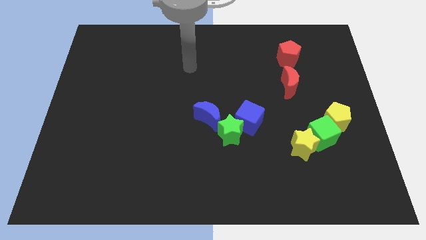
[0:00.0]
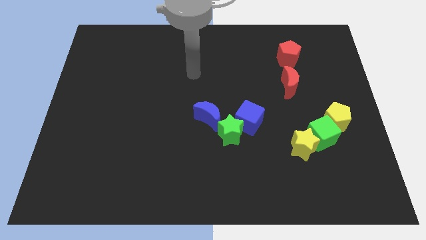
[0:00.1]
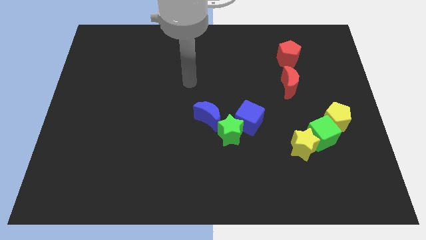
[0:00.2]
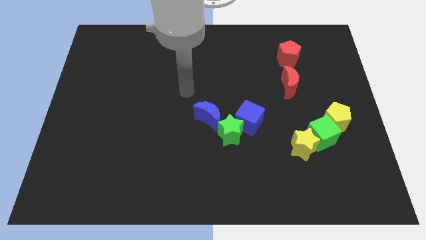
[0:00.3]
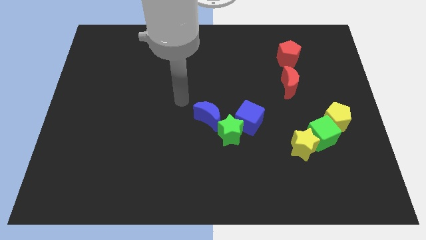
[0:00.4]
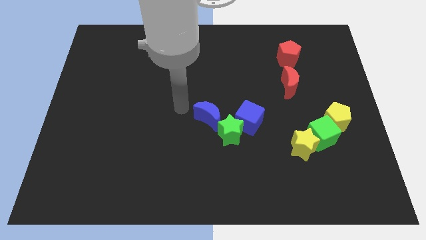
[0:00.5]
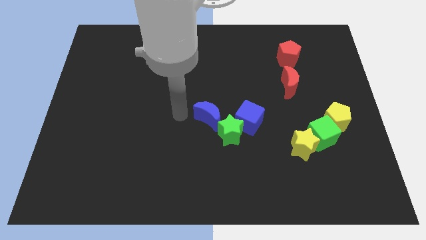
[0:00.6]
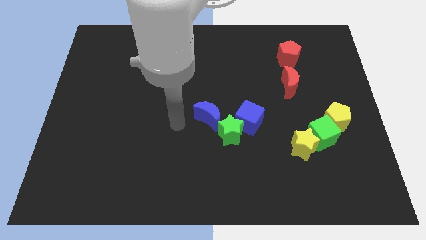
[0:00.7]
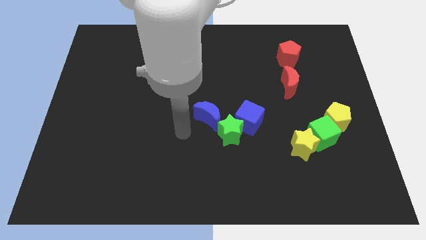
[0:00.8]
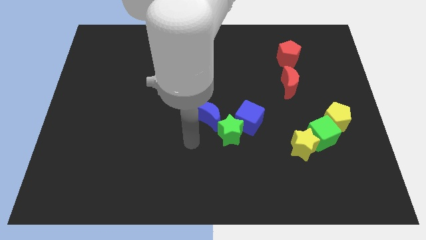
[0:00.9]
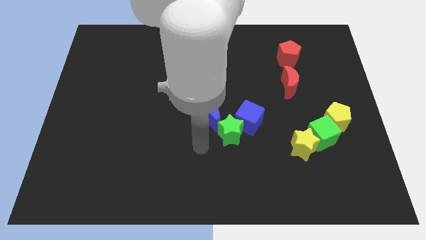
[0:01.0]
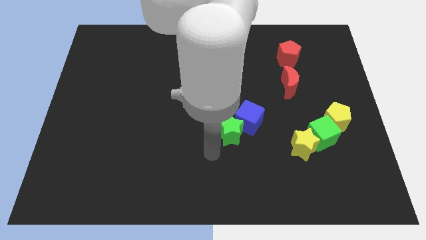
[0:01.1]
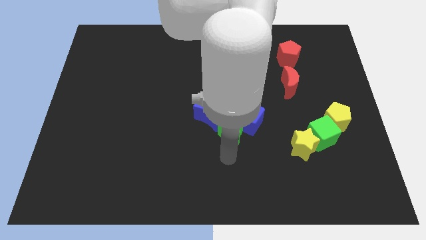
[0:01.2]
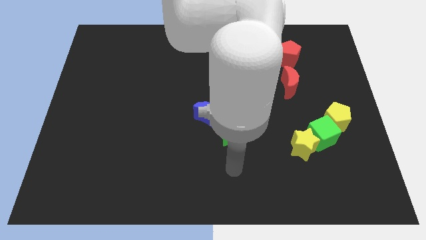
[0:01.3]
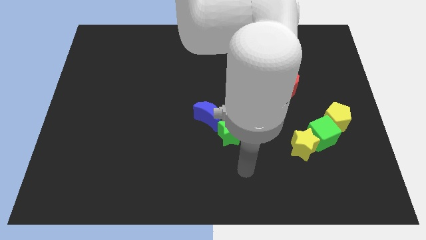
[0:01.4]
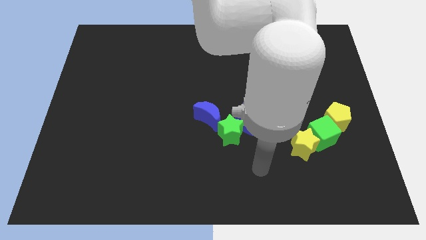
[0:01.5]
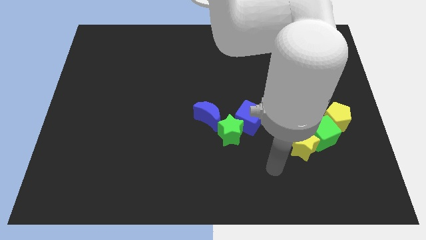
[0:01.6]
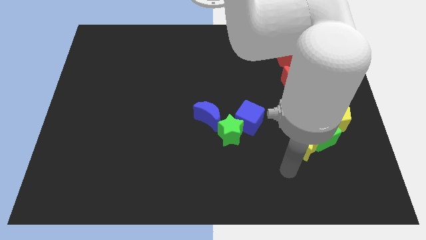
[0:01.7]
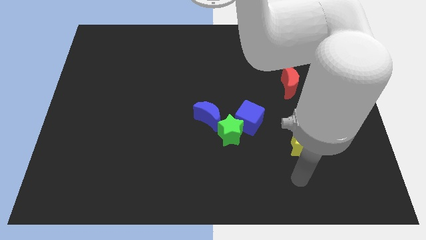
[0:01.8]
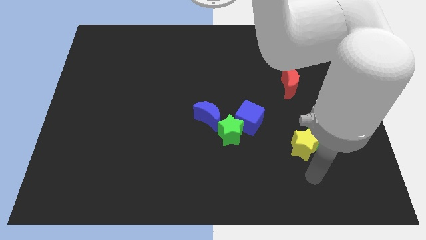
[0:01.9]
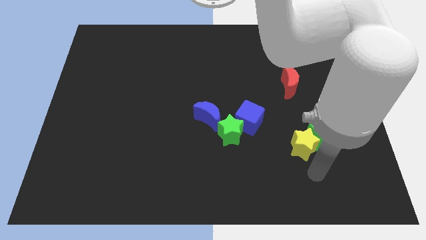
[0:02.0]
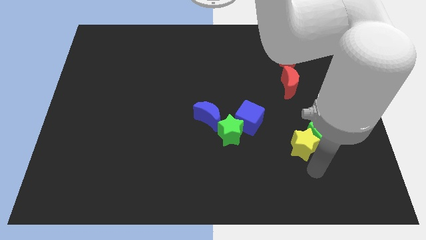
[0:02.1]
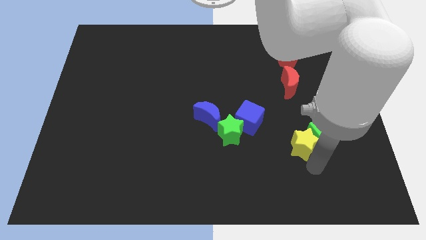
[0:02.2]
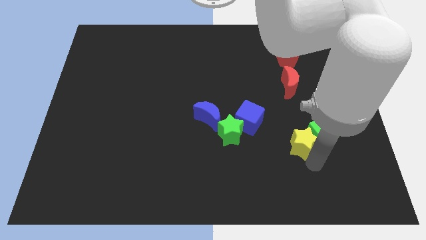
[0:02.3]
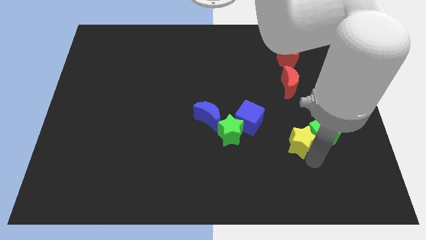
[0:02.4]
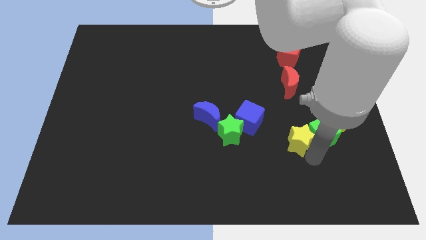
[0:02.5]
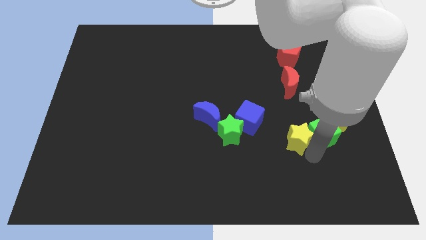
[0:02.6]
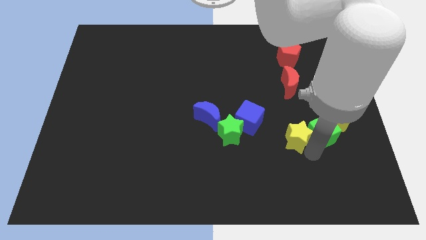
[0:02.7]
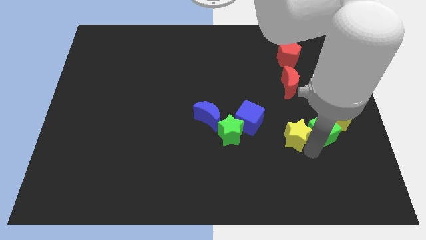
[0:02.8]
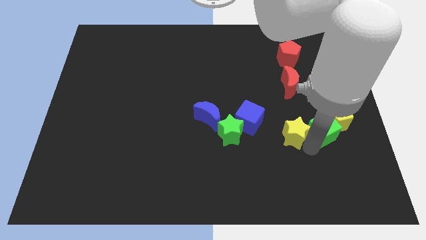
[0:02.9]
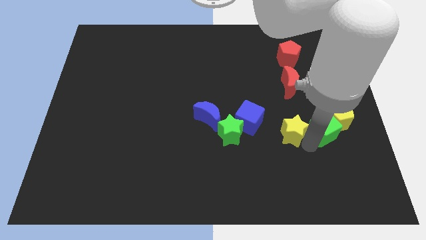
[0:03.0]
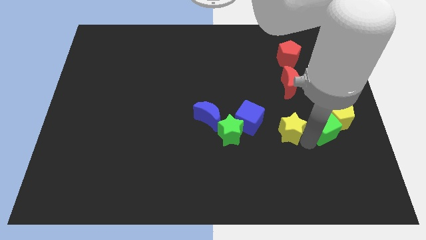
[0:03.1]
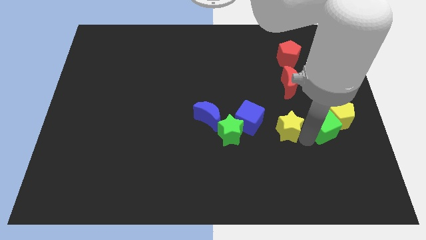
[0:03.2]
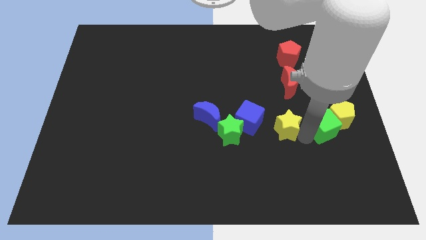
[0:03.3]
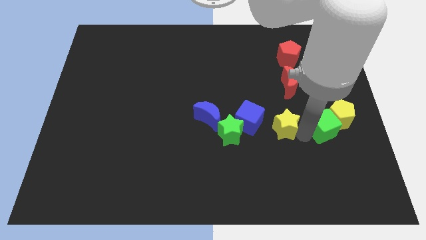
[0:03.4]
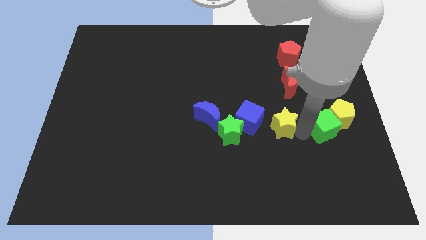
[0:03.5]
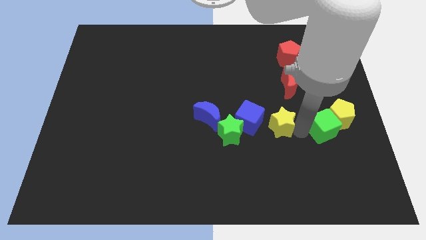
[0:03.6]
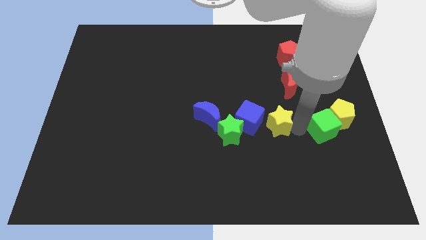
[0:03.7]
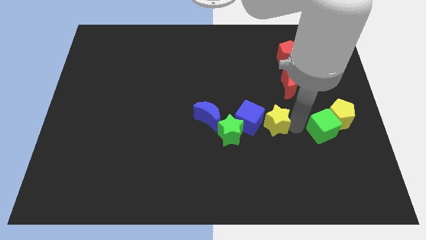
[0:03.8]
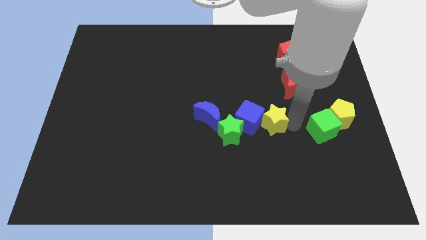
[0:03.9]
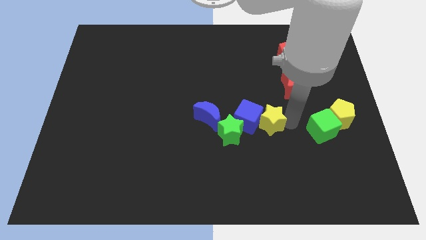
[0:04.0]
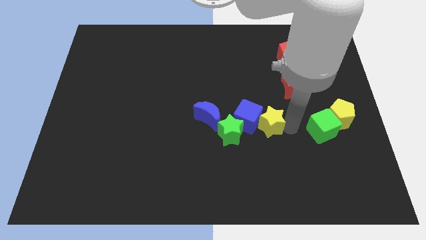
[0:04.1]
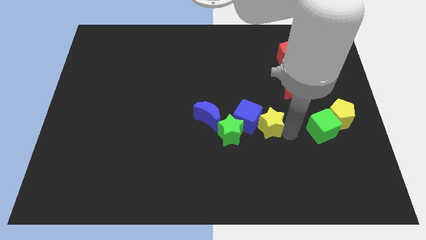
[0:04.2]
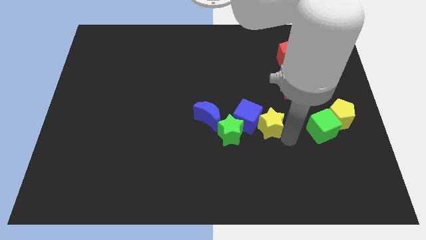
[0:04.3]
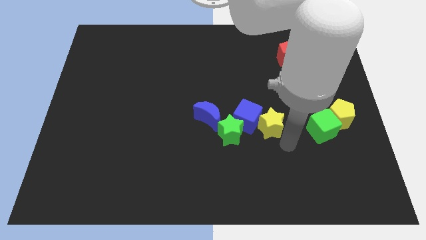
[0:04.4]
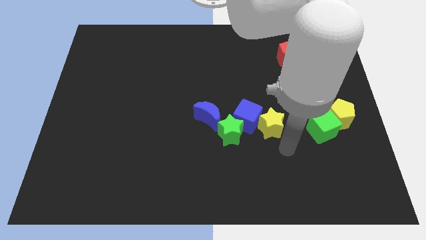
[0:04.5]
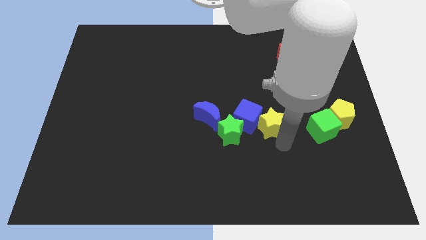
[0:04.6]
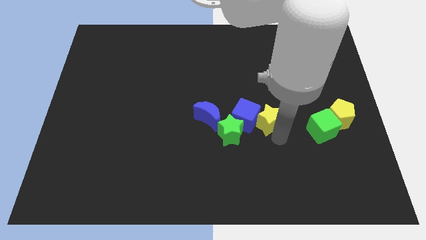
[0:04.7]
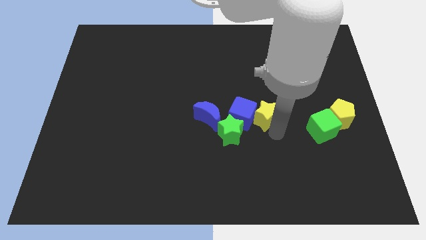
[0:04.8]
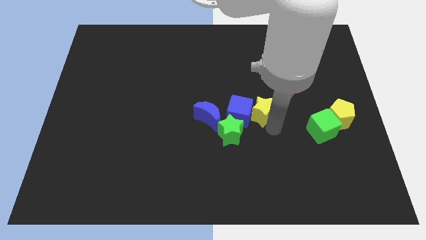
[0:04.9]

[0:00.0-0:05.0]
push the yellow star to the middle of the board

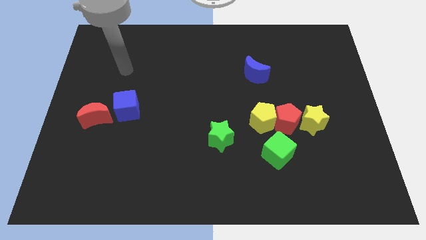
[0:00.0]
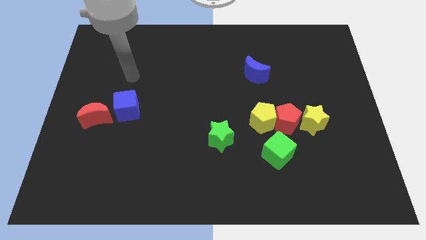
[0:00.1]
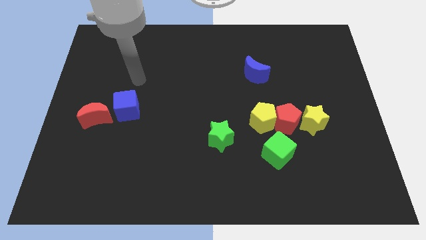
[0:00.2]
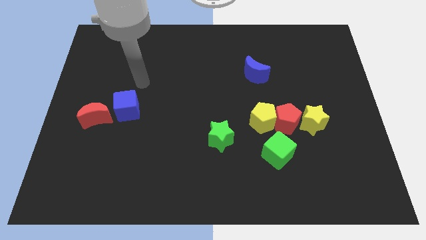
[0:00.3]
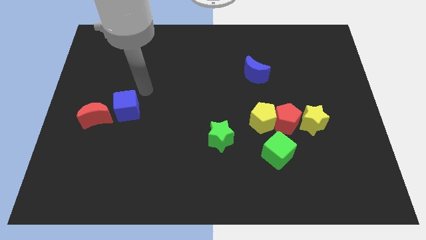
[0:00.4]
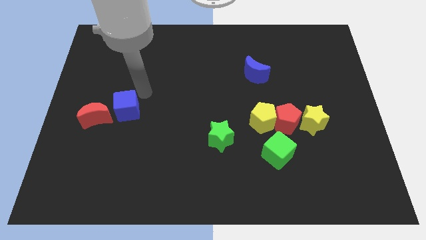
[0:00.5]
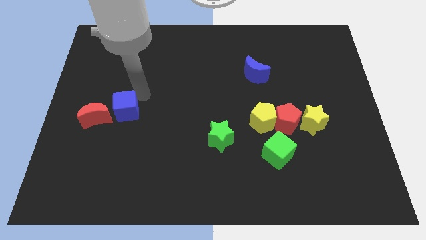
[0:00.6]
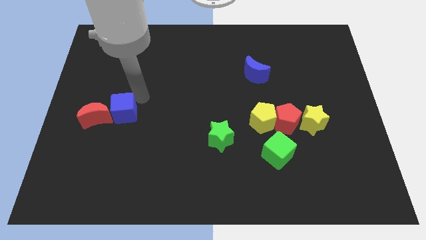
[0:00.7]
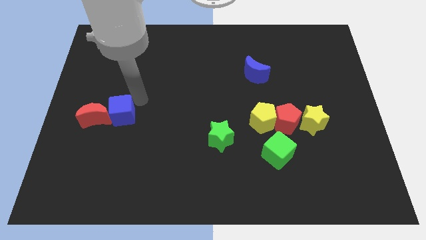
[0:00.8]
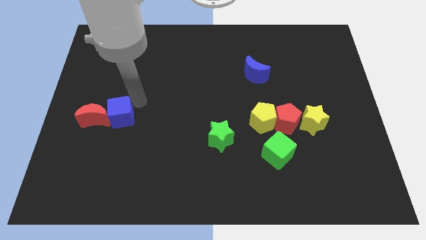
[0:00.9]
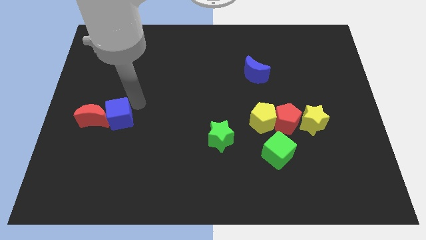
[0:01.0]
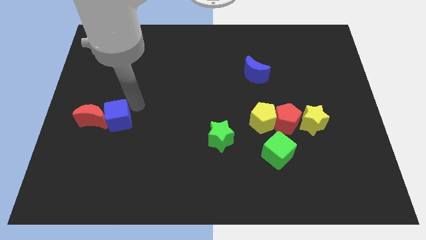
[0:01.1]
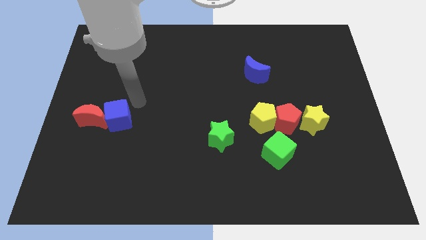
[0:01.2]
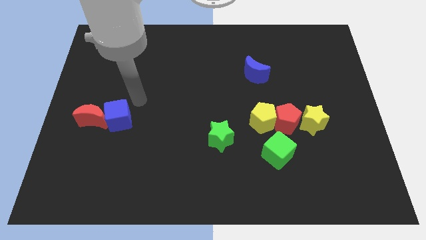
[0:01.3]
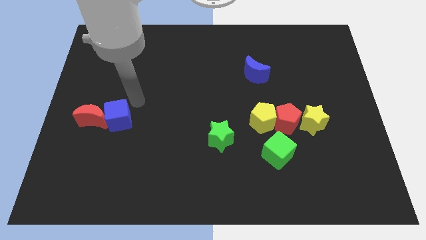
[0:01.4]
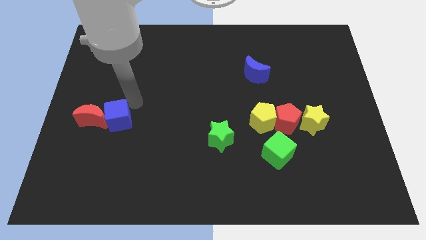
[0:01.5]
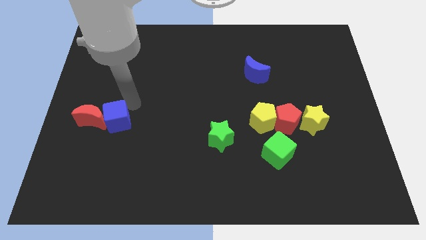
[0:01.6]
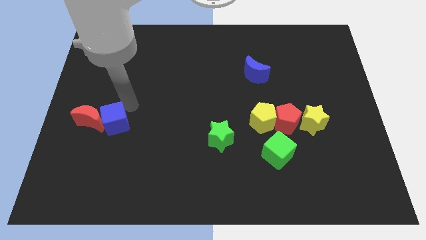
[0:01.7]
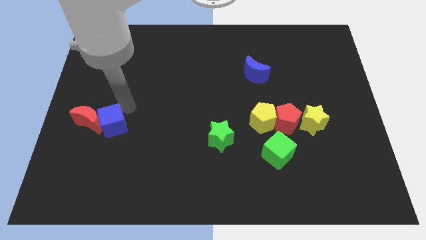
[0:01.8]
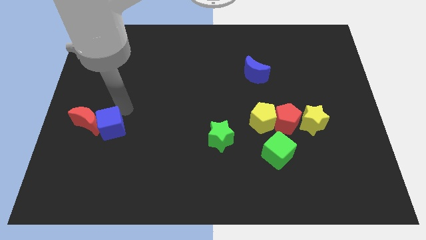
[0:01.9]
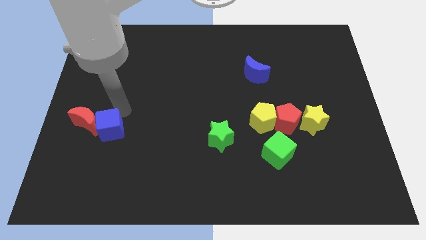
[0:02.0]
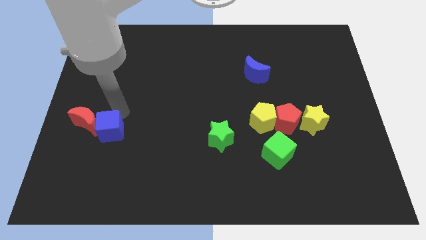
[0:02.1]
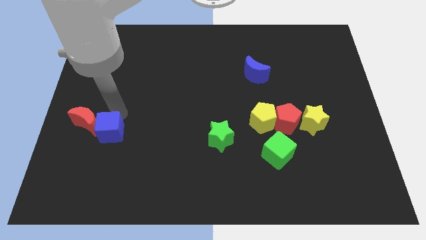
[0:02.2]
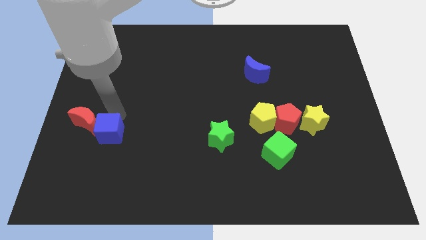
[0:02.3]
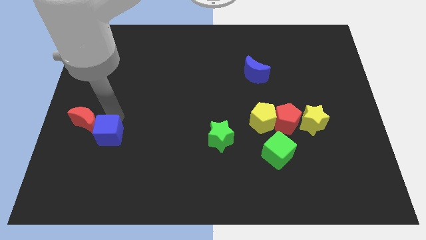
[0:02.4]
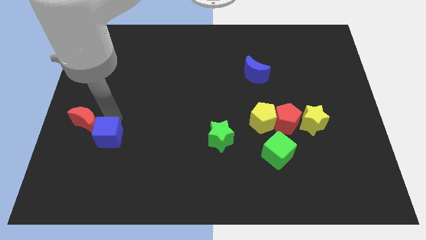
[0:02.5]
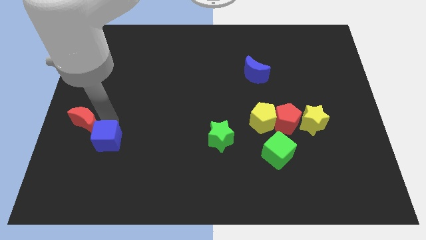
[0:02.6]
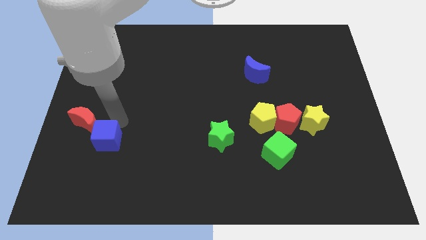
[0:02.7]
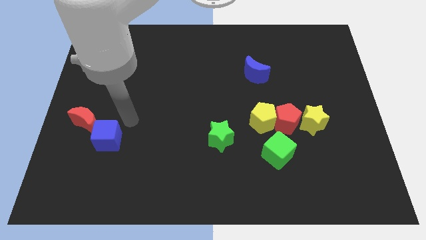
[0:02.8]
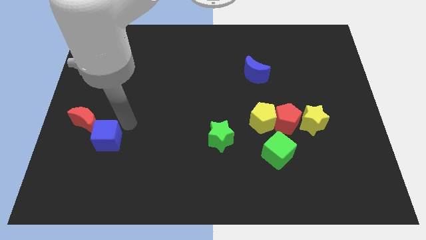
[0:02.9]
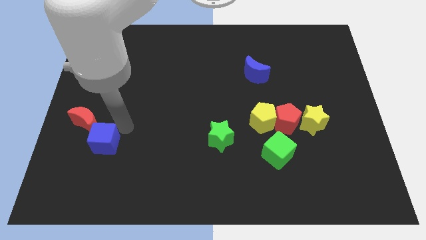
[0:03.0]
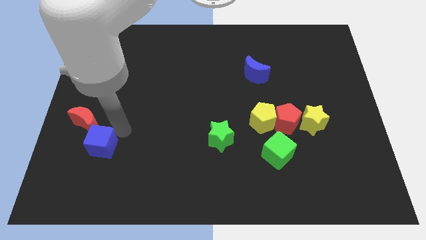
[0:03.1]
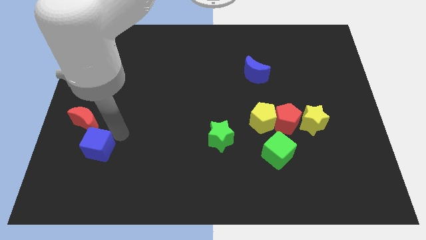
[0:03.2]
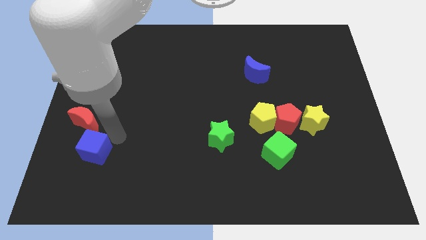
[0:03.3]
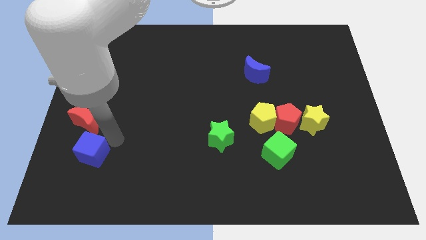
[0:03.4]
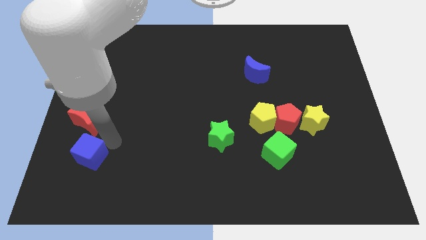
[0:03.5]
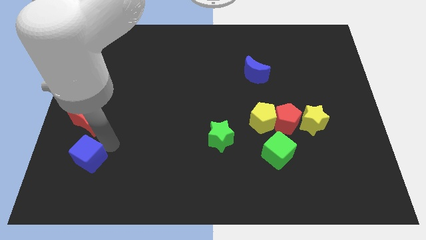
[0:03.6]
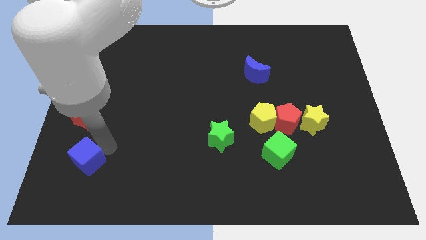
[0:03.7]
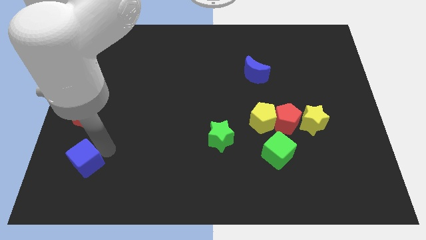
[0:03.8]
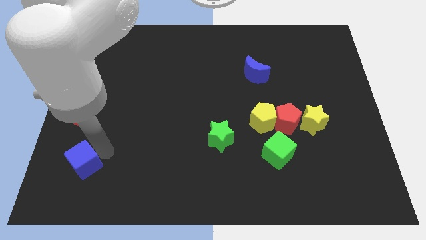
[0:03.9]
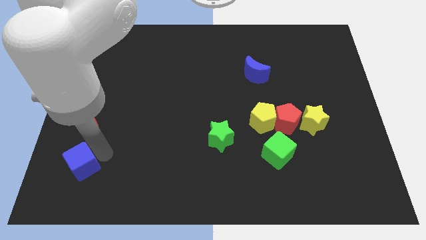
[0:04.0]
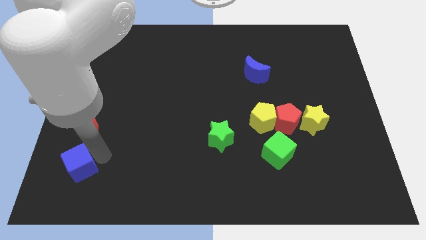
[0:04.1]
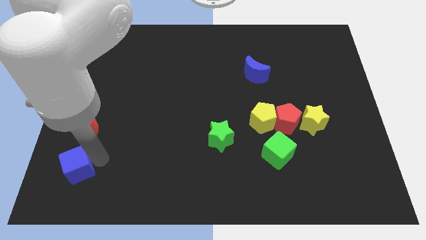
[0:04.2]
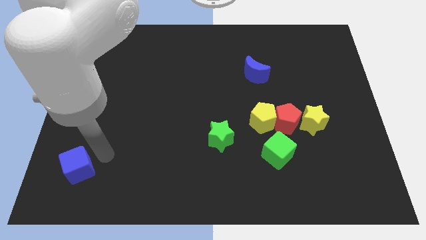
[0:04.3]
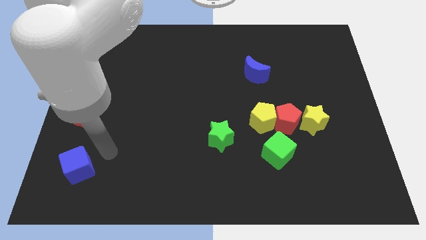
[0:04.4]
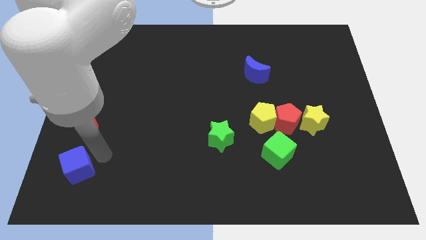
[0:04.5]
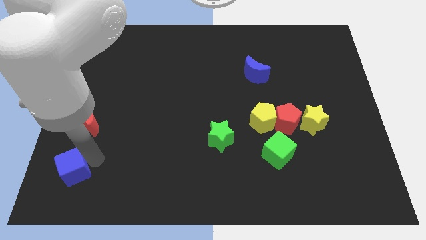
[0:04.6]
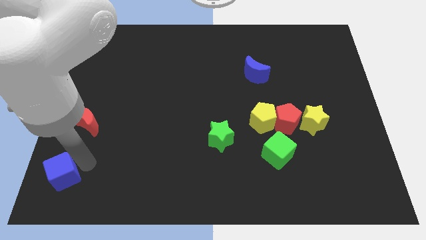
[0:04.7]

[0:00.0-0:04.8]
put the blue cube to the lower left corner
